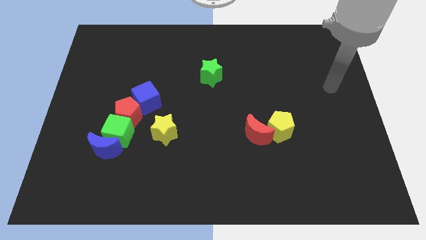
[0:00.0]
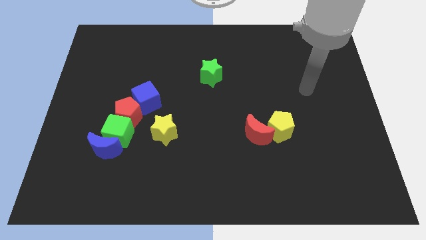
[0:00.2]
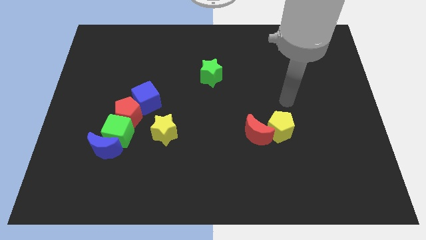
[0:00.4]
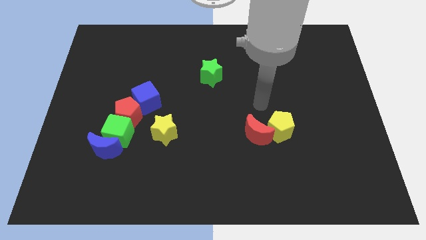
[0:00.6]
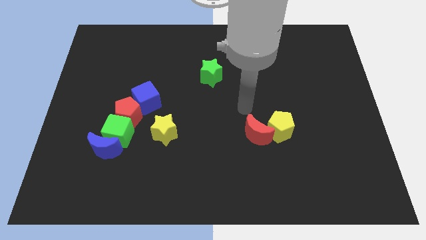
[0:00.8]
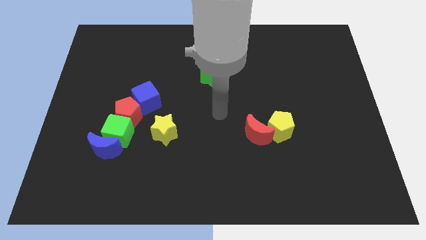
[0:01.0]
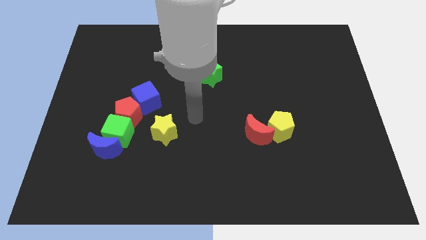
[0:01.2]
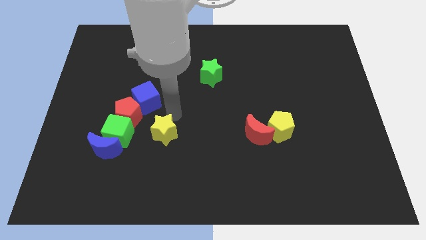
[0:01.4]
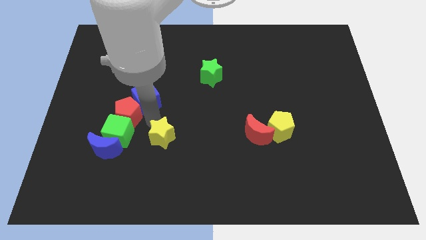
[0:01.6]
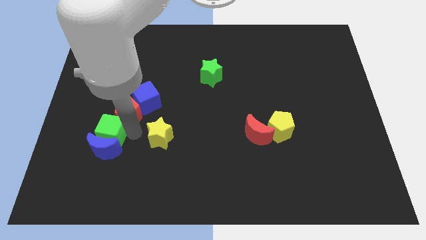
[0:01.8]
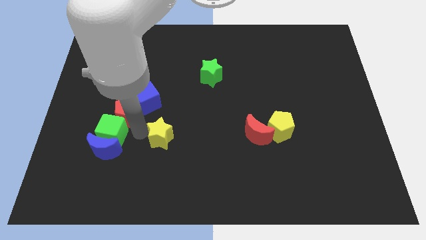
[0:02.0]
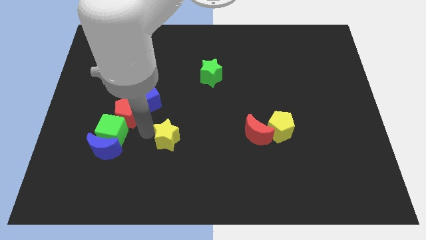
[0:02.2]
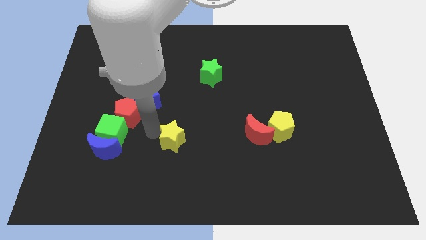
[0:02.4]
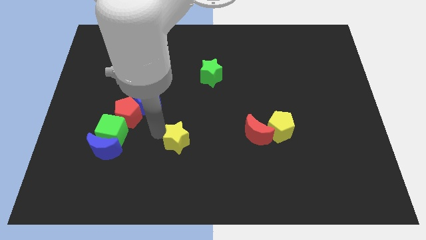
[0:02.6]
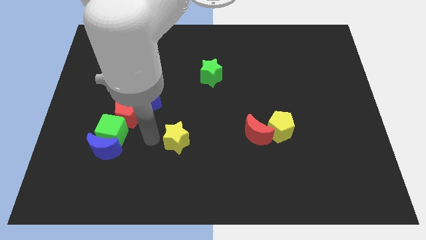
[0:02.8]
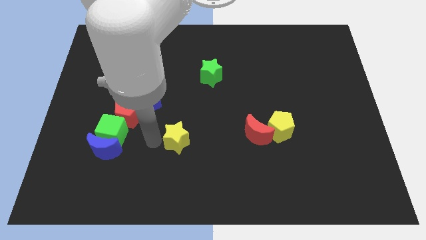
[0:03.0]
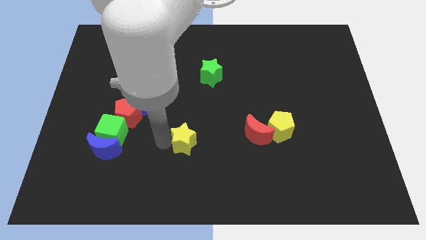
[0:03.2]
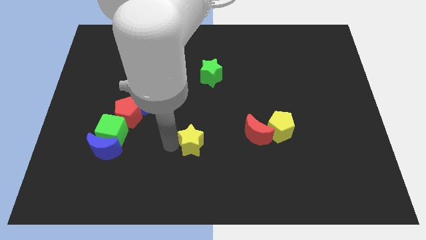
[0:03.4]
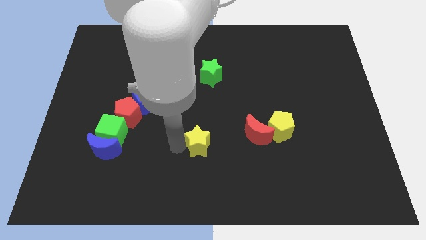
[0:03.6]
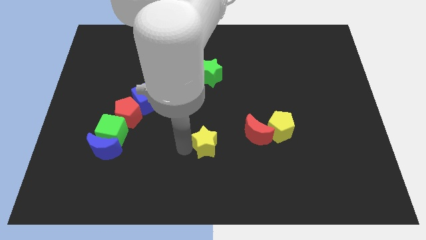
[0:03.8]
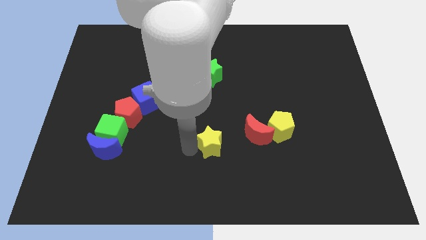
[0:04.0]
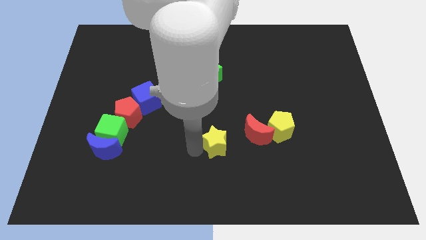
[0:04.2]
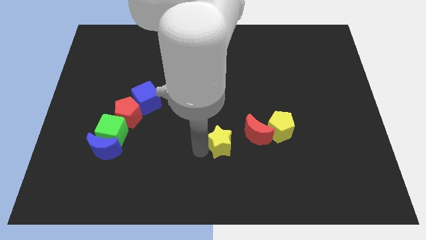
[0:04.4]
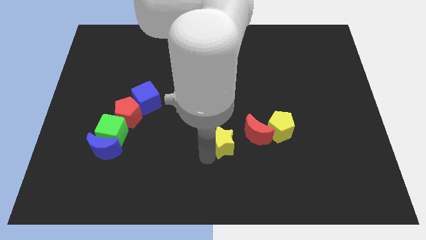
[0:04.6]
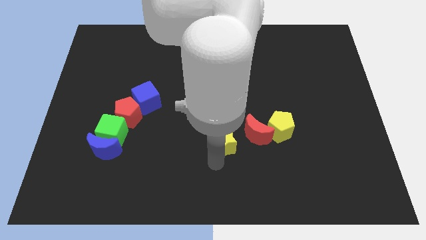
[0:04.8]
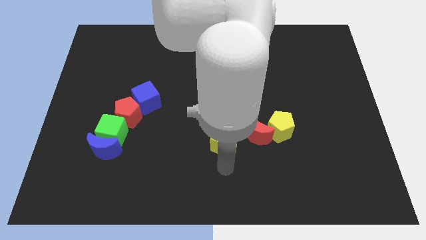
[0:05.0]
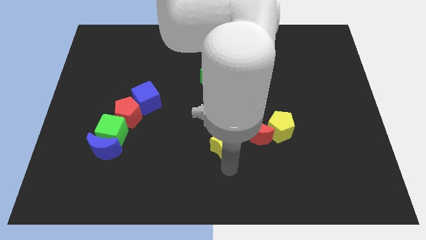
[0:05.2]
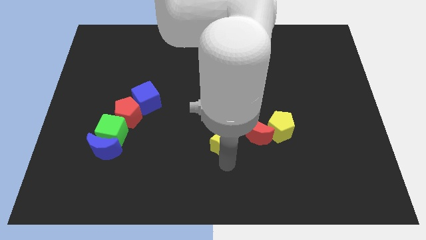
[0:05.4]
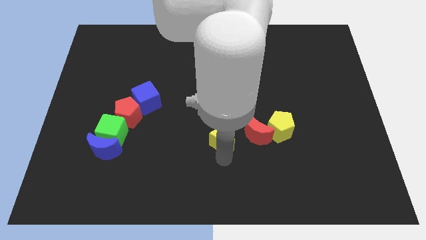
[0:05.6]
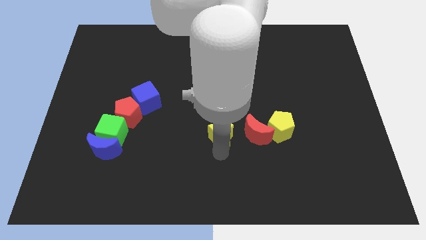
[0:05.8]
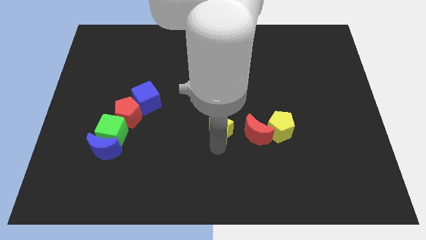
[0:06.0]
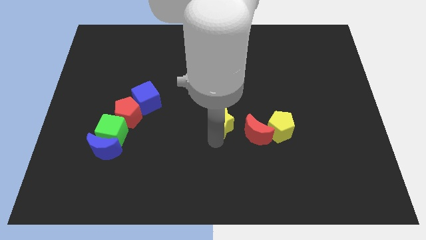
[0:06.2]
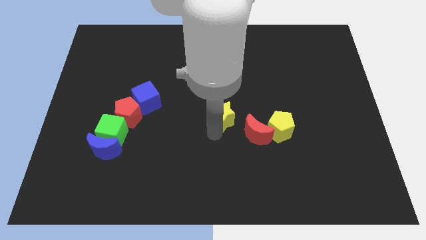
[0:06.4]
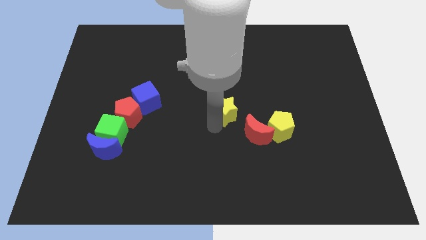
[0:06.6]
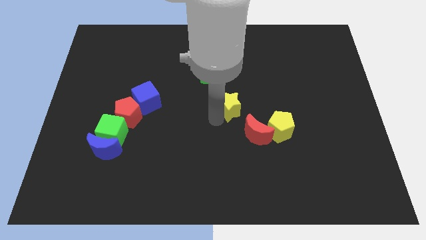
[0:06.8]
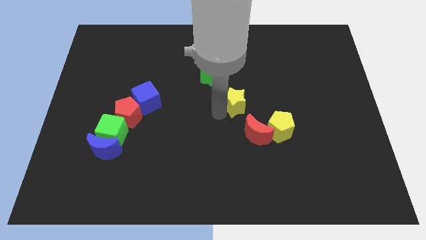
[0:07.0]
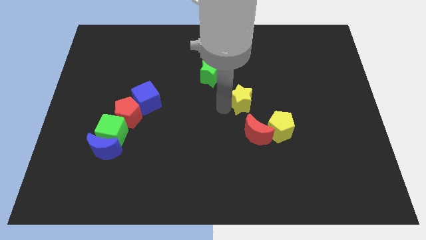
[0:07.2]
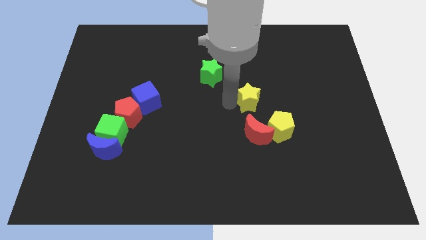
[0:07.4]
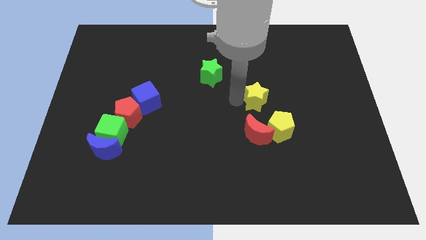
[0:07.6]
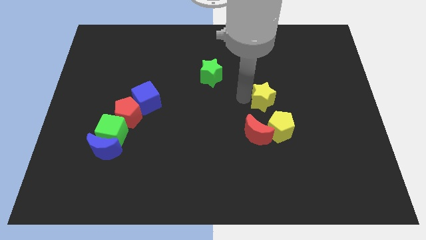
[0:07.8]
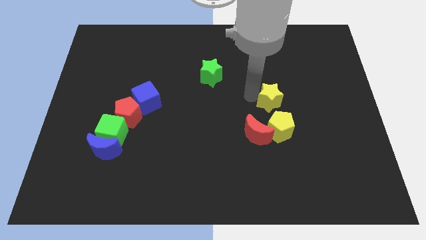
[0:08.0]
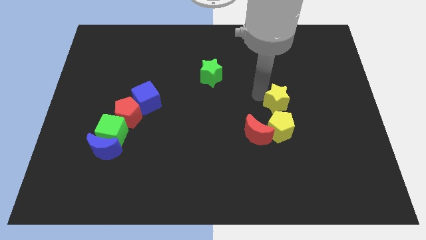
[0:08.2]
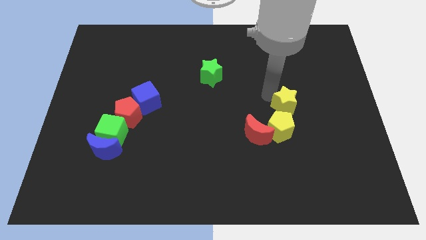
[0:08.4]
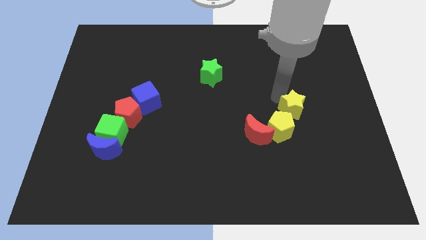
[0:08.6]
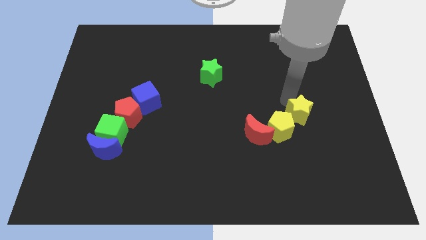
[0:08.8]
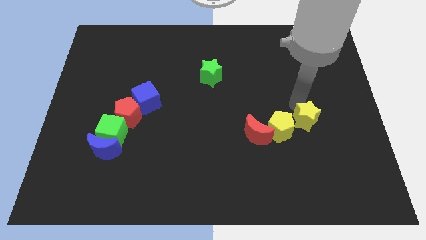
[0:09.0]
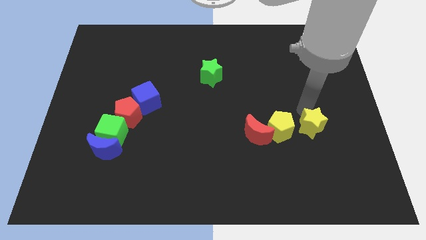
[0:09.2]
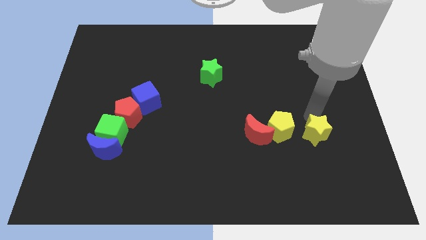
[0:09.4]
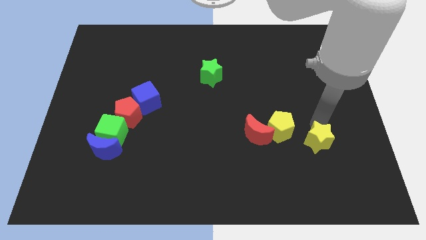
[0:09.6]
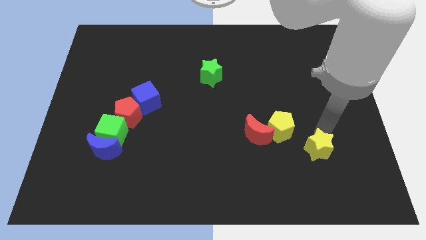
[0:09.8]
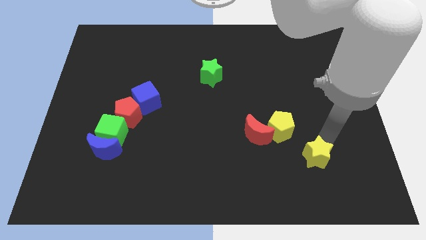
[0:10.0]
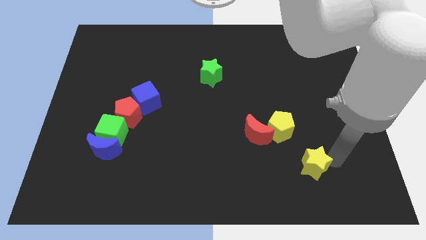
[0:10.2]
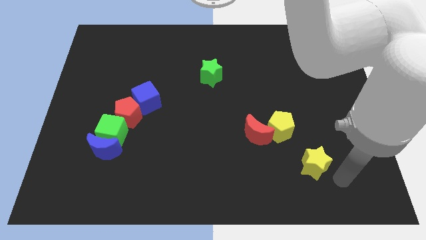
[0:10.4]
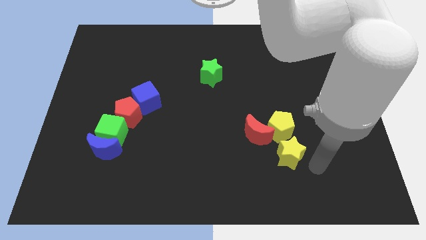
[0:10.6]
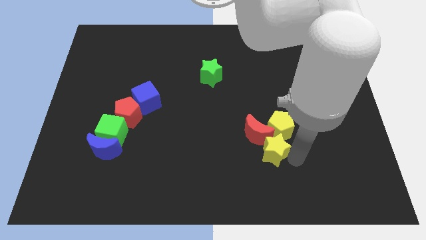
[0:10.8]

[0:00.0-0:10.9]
push the yellow star close to the red moon

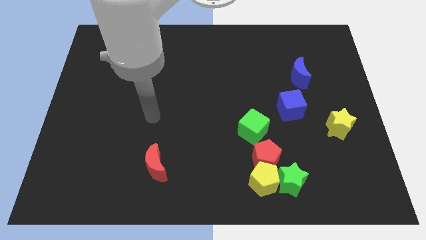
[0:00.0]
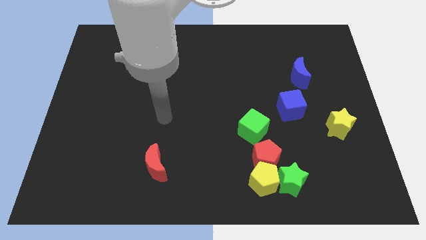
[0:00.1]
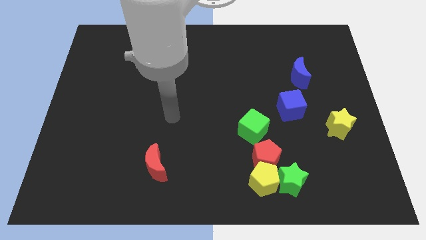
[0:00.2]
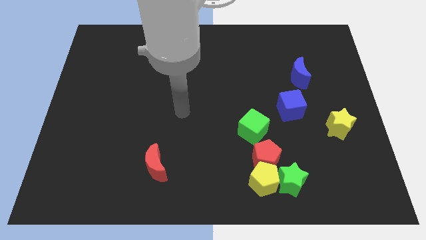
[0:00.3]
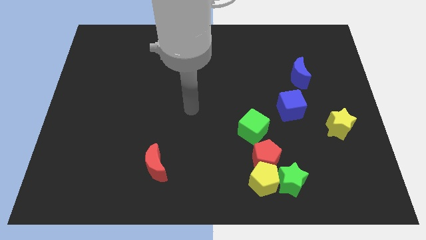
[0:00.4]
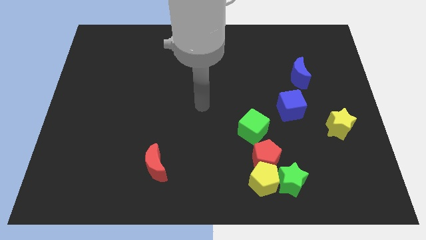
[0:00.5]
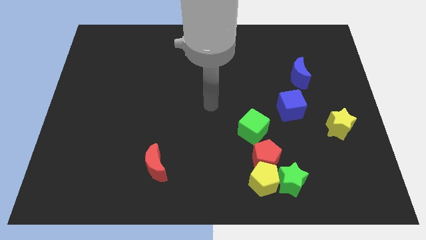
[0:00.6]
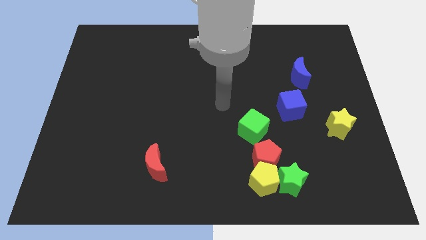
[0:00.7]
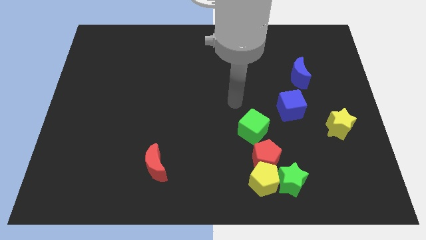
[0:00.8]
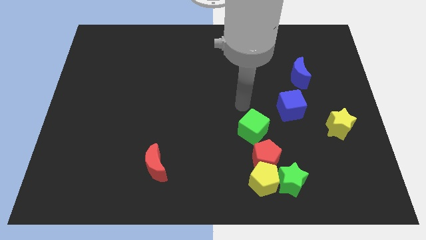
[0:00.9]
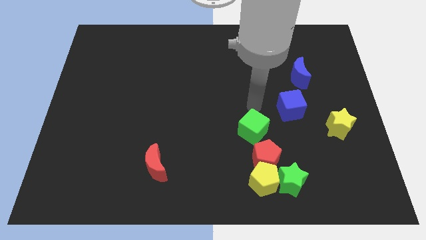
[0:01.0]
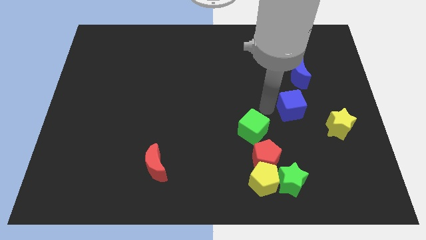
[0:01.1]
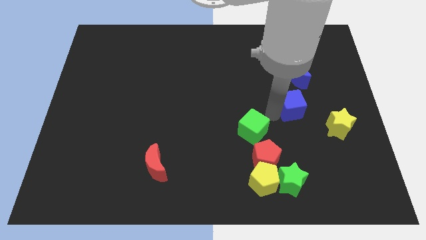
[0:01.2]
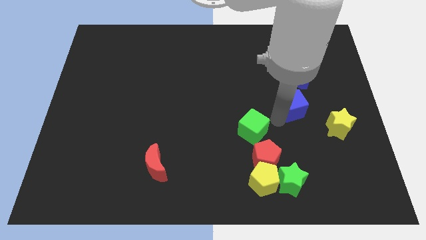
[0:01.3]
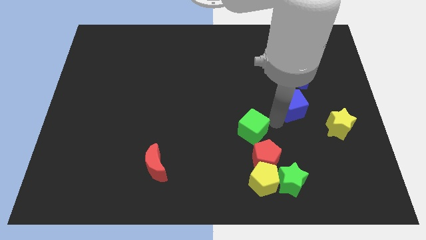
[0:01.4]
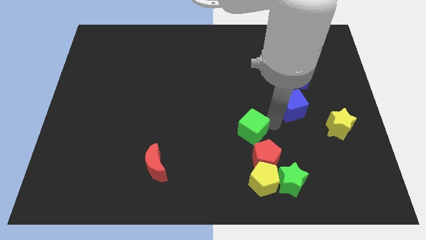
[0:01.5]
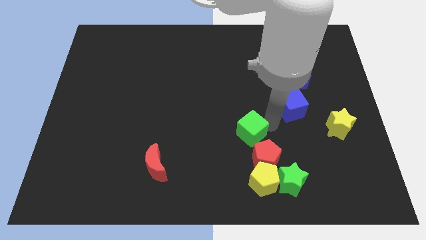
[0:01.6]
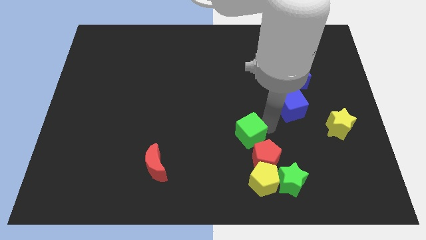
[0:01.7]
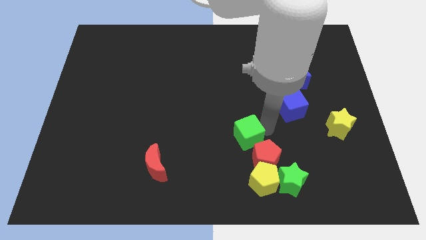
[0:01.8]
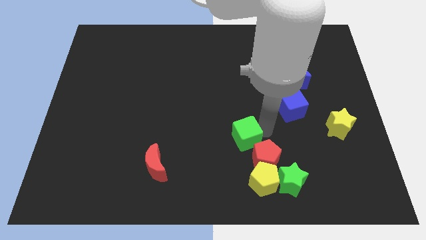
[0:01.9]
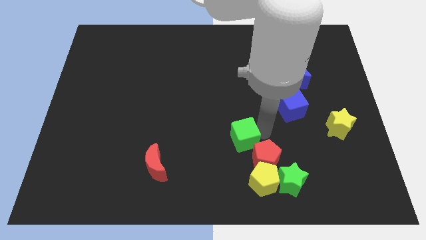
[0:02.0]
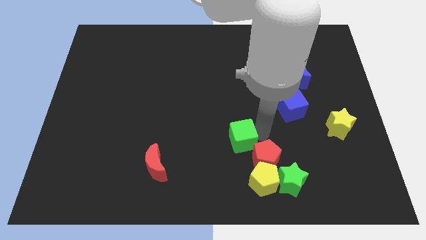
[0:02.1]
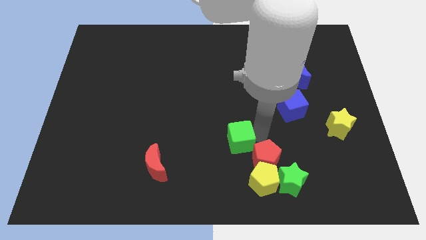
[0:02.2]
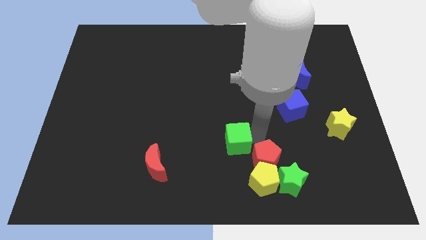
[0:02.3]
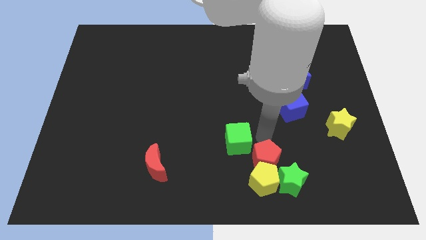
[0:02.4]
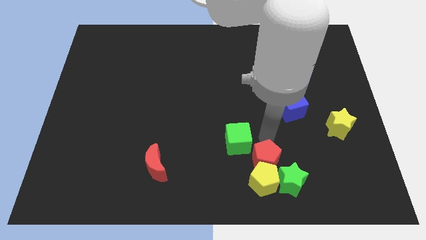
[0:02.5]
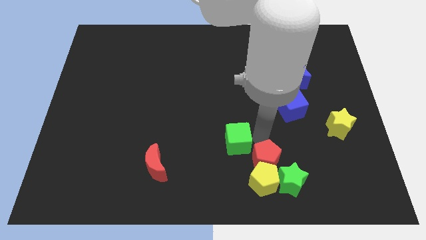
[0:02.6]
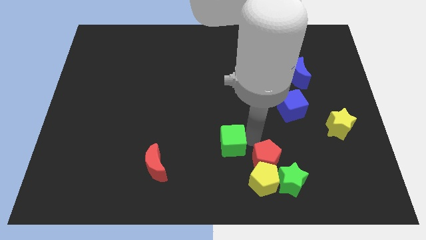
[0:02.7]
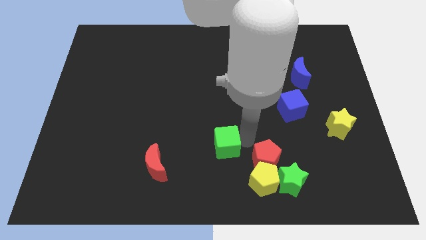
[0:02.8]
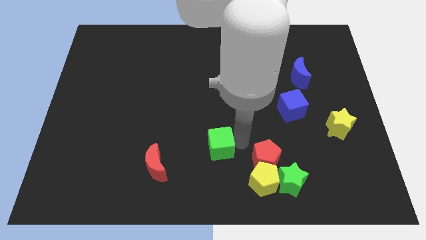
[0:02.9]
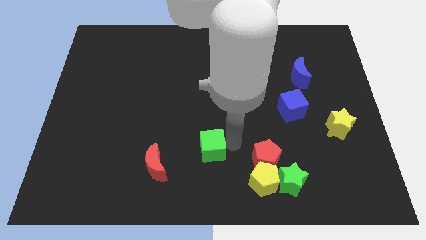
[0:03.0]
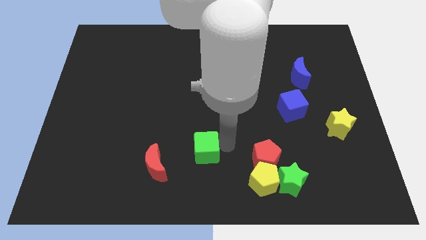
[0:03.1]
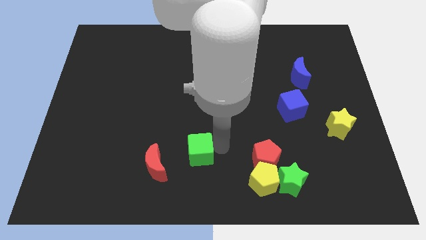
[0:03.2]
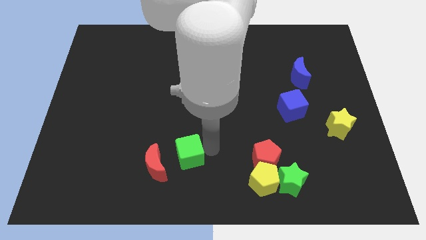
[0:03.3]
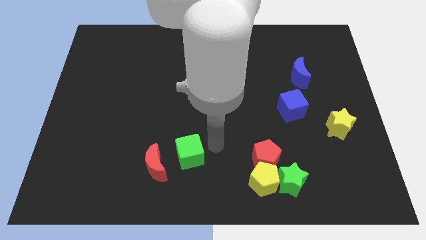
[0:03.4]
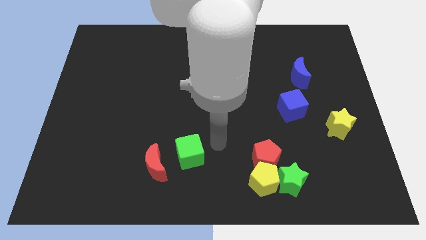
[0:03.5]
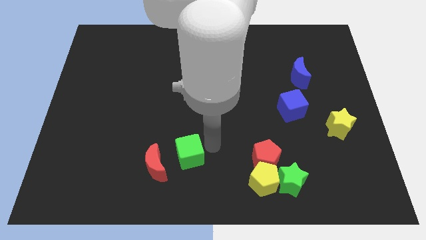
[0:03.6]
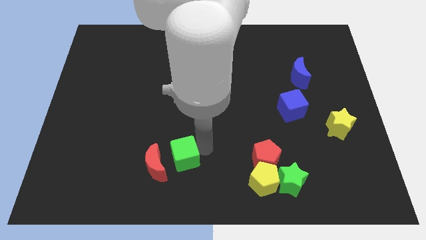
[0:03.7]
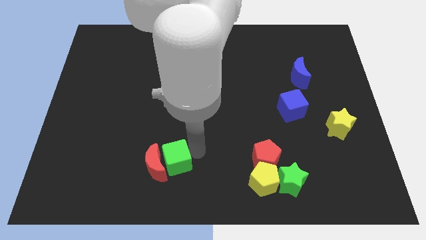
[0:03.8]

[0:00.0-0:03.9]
push the green cube next to the red moon
